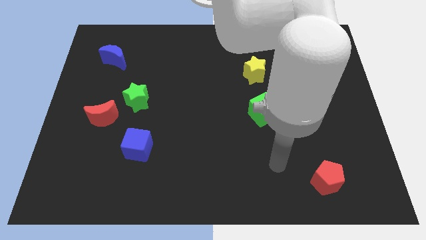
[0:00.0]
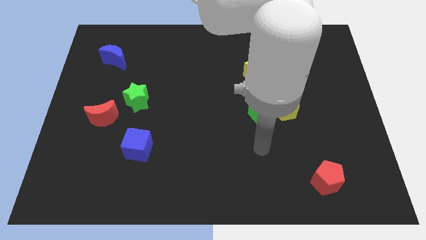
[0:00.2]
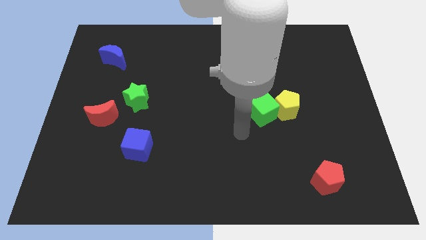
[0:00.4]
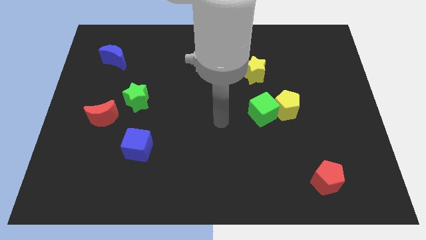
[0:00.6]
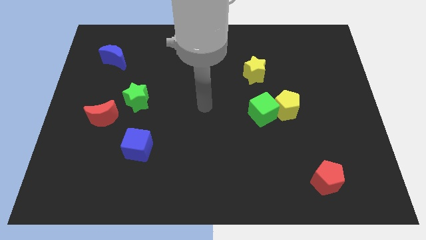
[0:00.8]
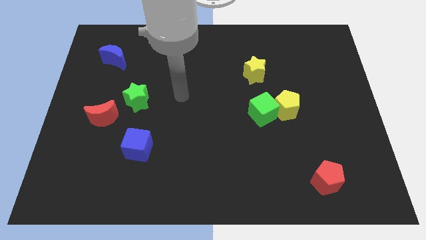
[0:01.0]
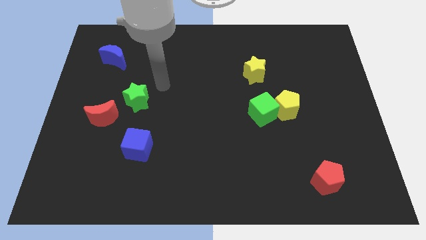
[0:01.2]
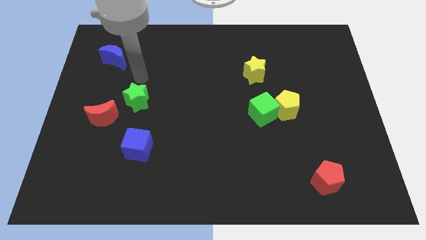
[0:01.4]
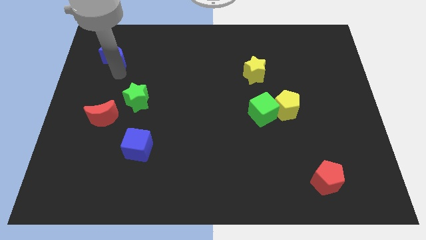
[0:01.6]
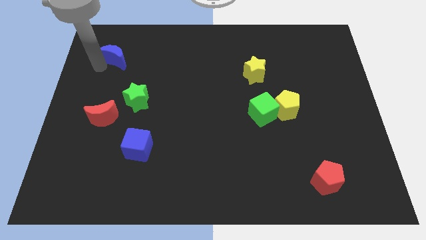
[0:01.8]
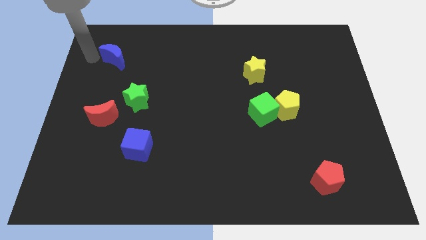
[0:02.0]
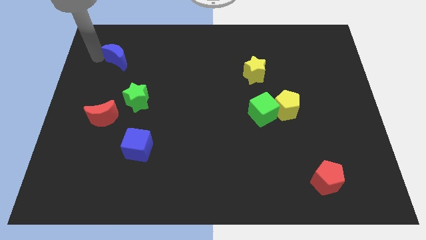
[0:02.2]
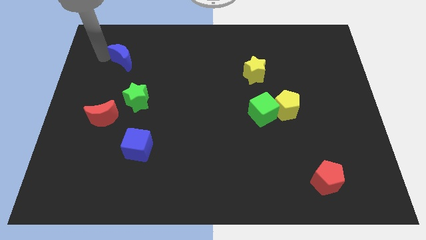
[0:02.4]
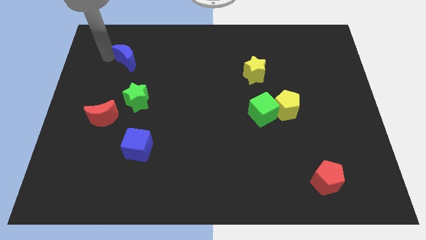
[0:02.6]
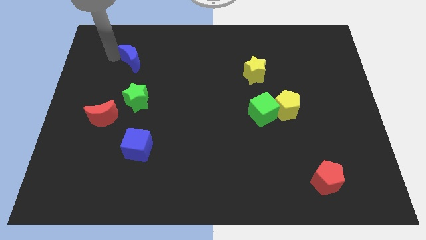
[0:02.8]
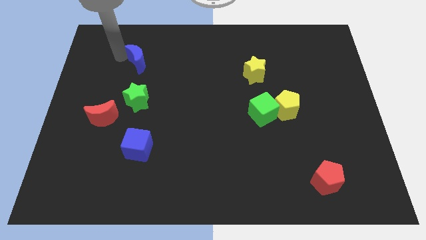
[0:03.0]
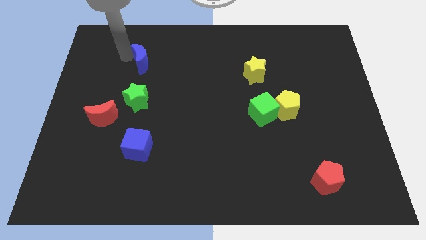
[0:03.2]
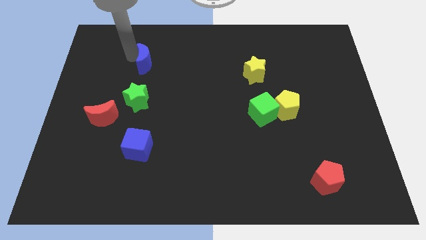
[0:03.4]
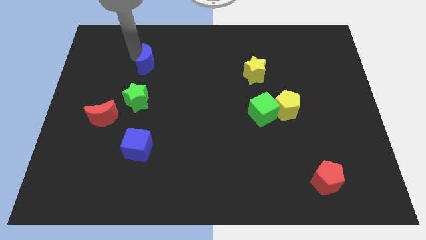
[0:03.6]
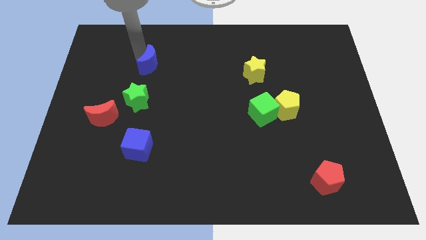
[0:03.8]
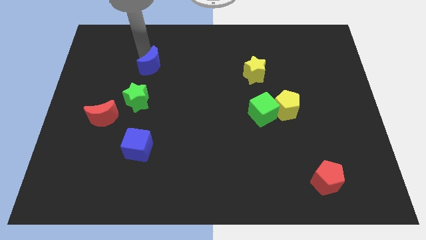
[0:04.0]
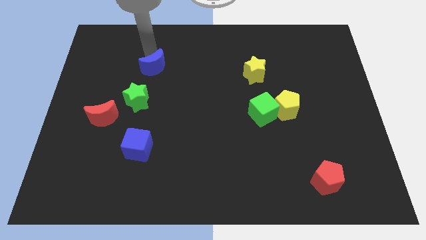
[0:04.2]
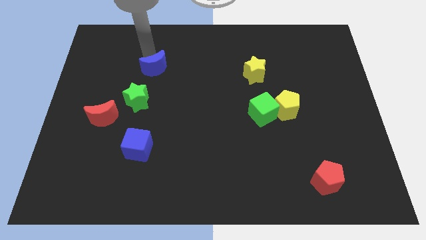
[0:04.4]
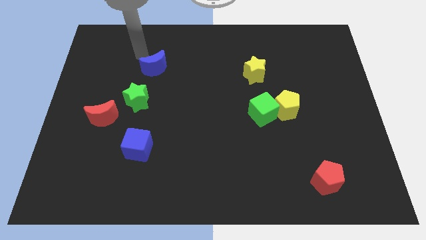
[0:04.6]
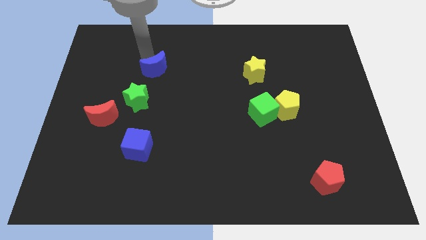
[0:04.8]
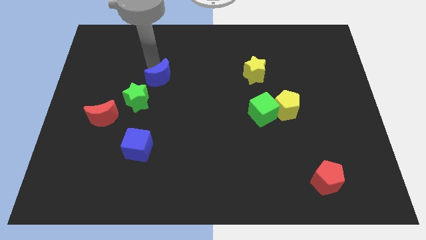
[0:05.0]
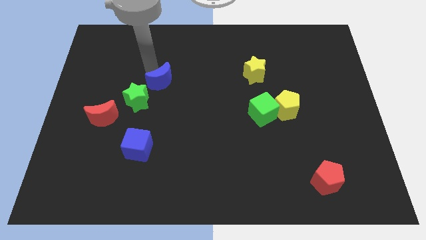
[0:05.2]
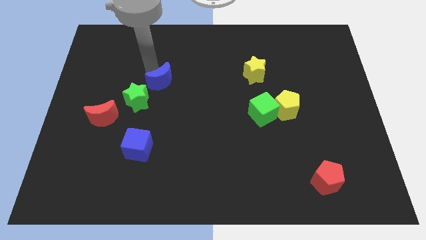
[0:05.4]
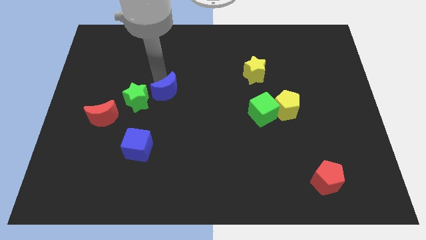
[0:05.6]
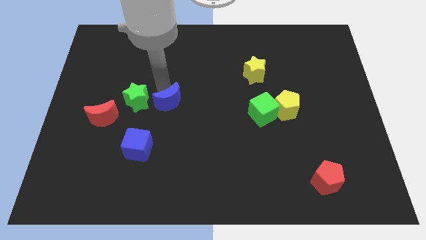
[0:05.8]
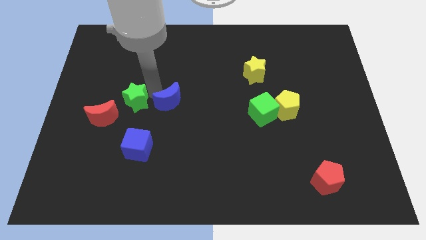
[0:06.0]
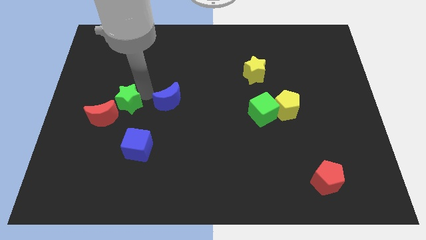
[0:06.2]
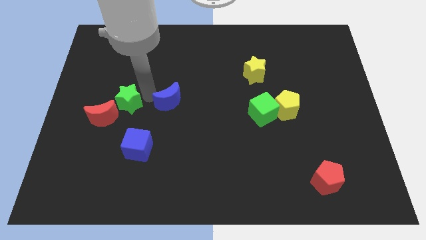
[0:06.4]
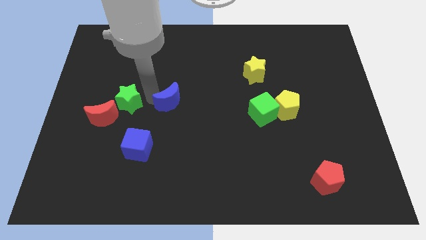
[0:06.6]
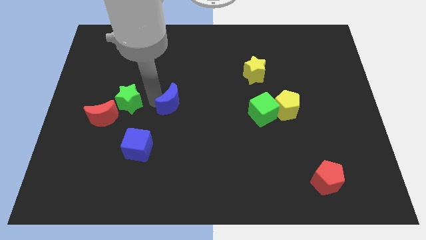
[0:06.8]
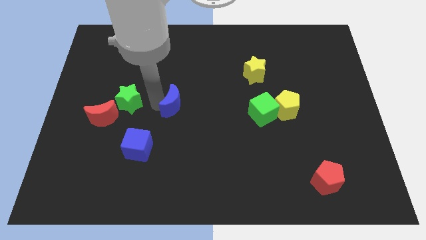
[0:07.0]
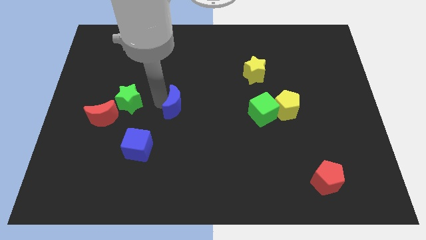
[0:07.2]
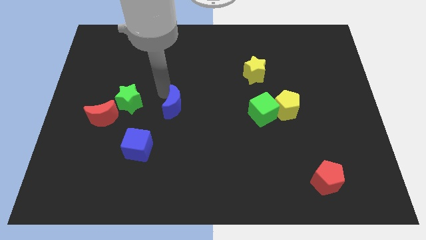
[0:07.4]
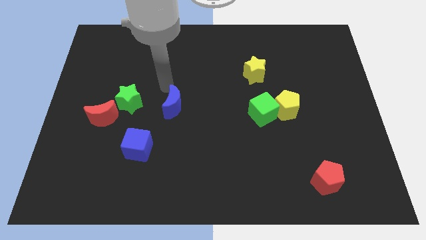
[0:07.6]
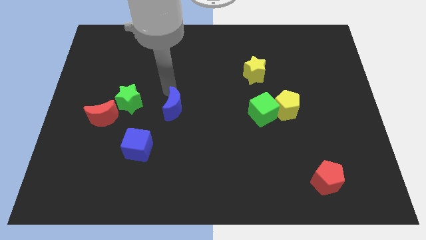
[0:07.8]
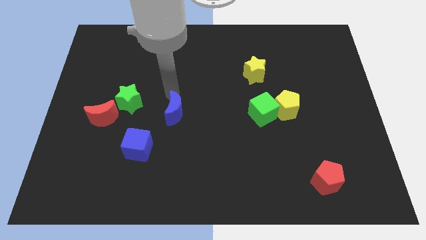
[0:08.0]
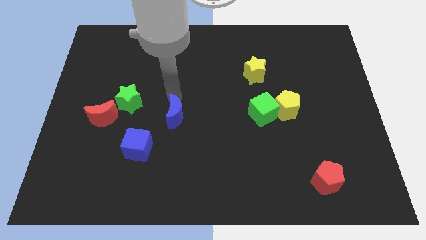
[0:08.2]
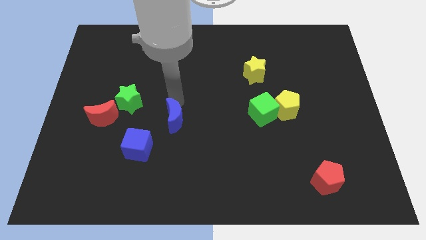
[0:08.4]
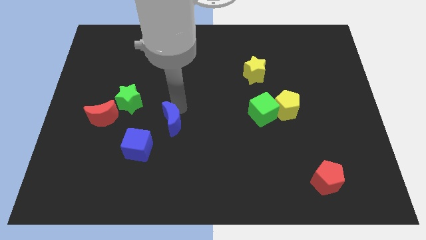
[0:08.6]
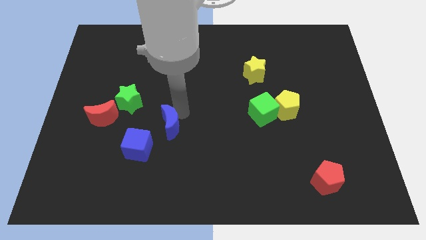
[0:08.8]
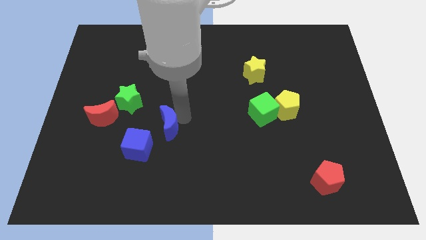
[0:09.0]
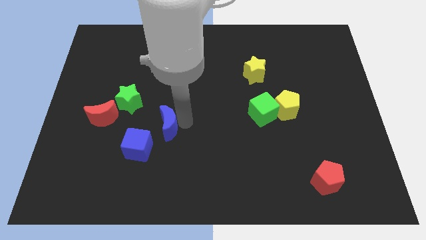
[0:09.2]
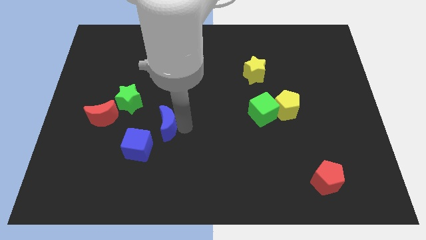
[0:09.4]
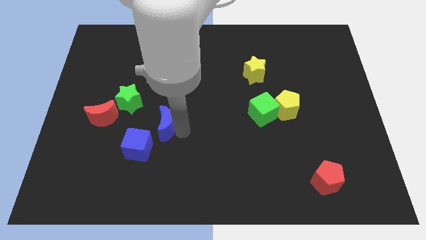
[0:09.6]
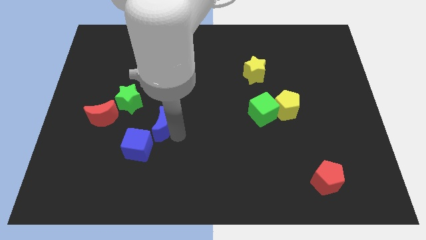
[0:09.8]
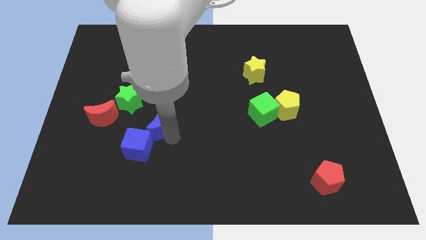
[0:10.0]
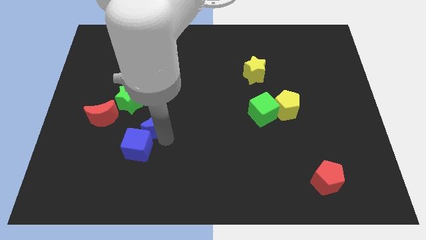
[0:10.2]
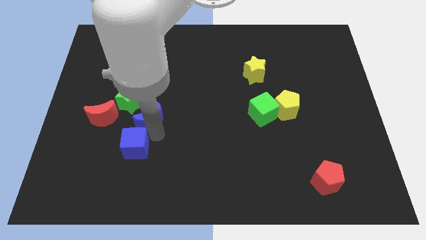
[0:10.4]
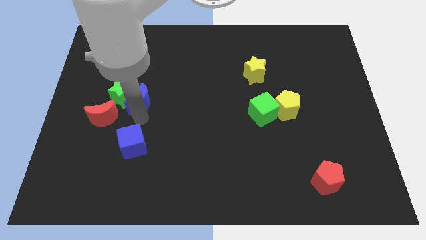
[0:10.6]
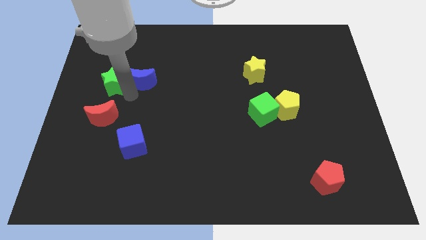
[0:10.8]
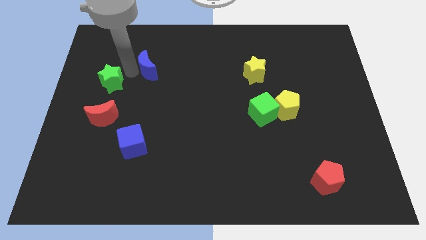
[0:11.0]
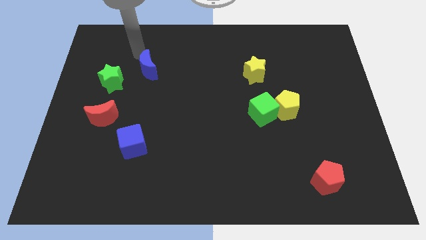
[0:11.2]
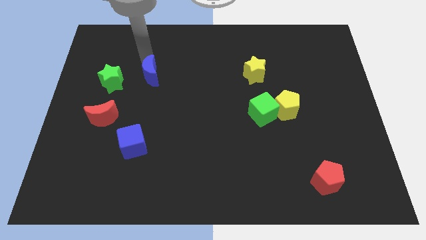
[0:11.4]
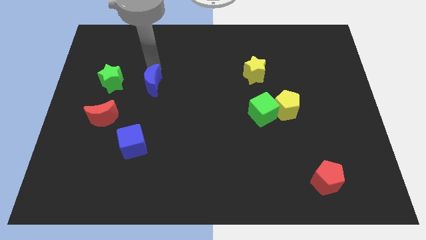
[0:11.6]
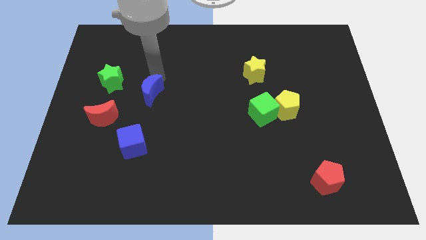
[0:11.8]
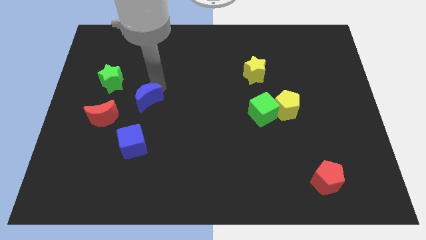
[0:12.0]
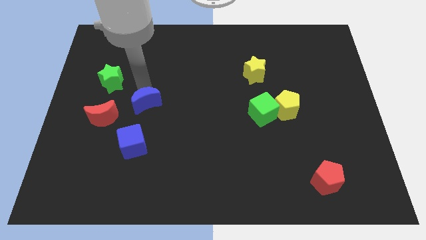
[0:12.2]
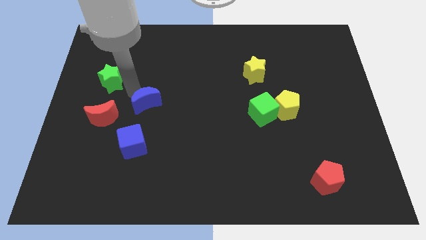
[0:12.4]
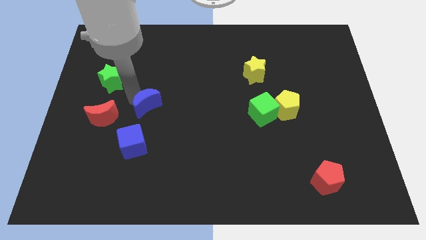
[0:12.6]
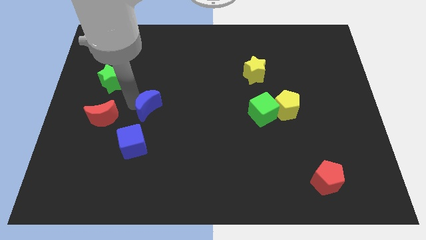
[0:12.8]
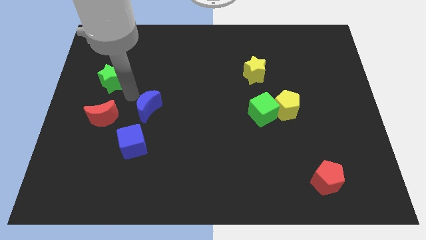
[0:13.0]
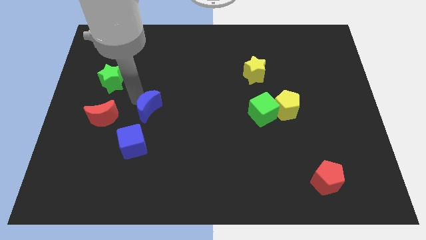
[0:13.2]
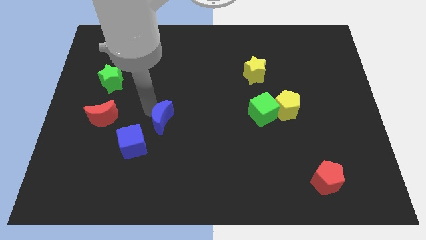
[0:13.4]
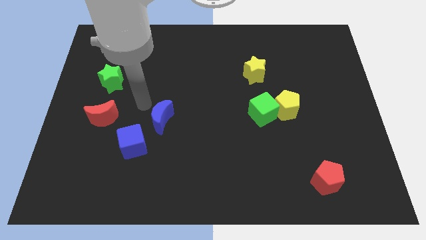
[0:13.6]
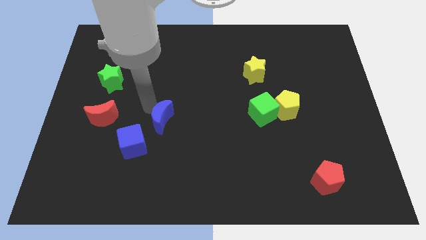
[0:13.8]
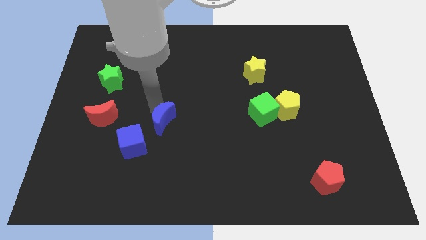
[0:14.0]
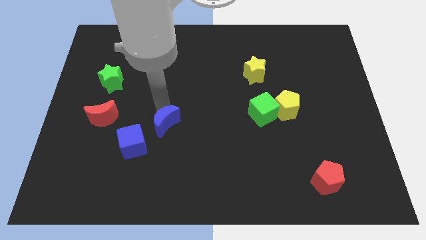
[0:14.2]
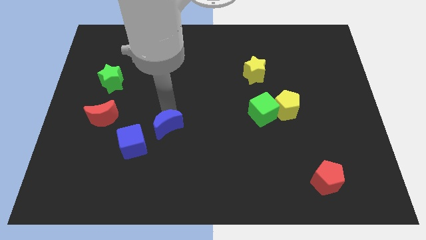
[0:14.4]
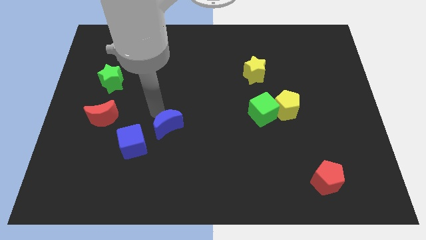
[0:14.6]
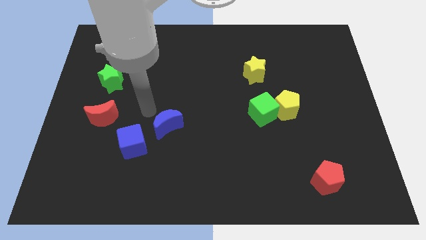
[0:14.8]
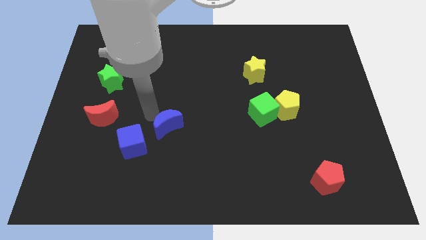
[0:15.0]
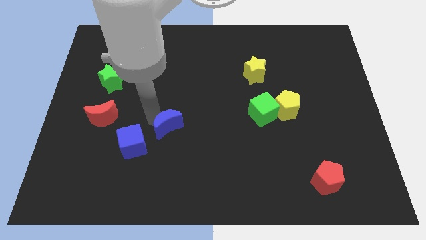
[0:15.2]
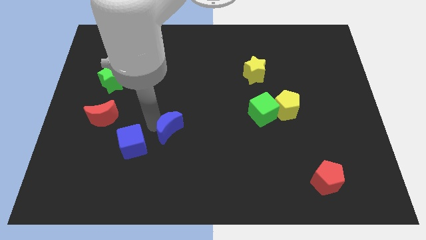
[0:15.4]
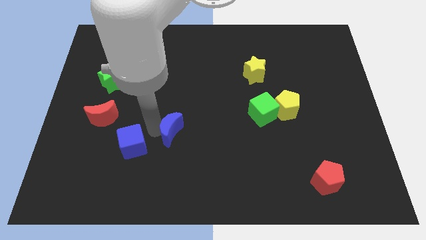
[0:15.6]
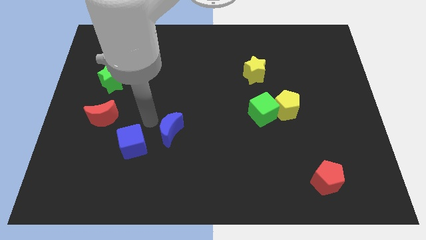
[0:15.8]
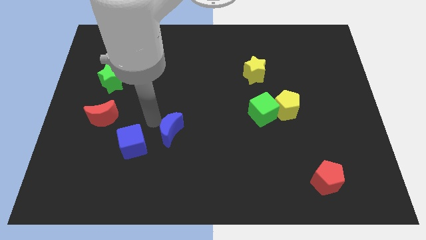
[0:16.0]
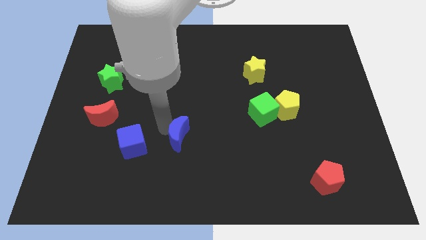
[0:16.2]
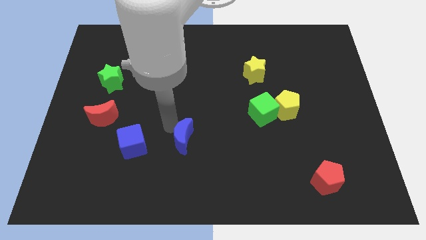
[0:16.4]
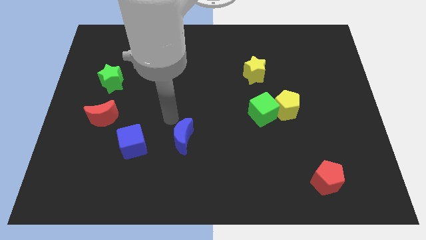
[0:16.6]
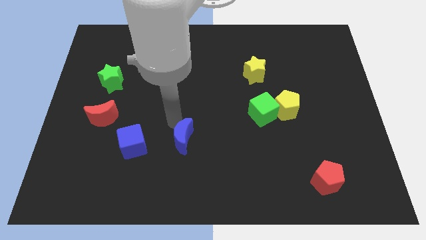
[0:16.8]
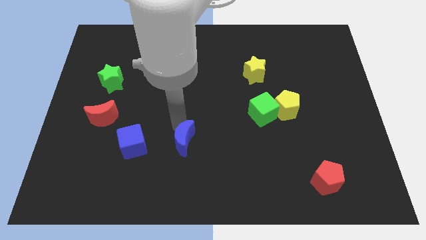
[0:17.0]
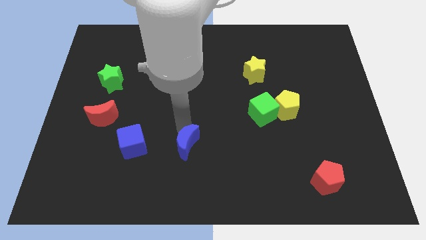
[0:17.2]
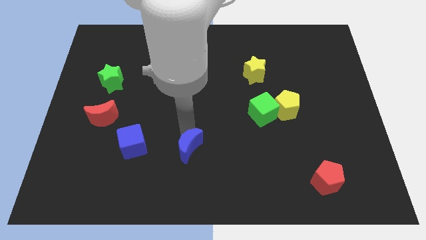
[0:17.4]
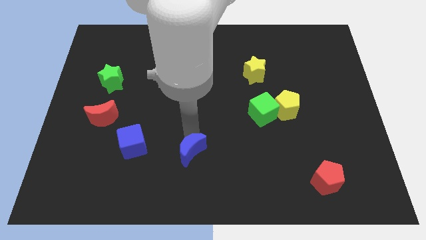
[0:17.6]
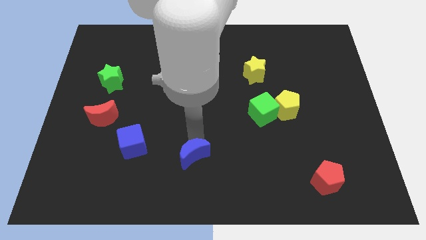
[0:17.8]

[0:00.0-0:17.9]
move the blue moon to the bottom
